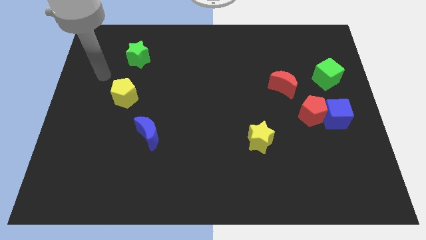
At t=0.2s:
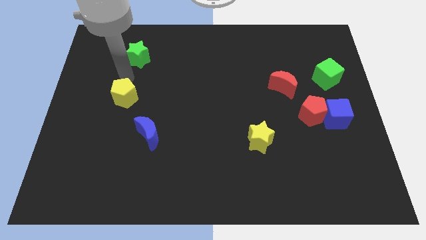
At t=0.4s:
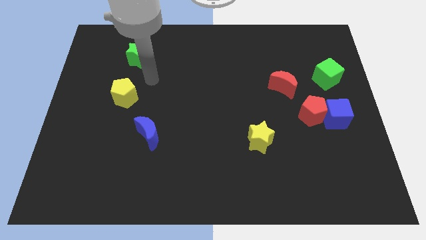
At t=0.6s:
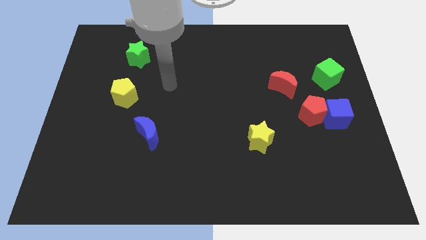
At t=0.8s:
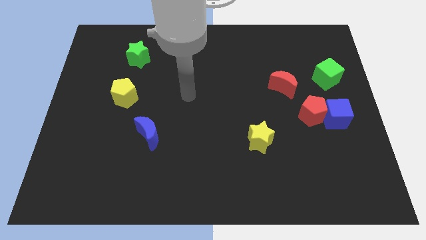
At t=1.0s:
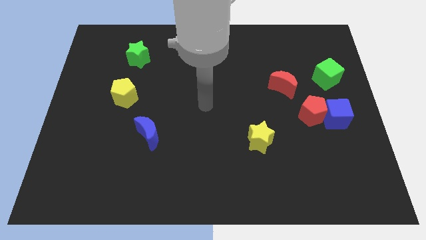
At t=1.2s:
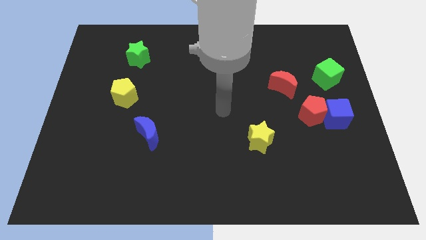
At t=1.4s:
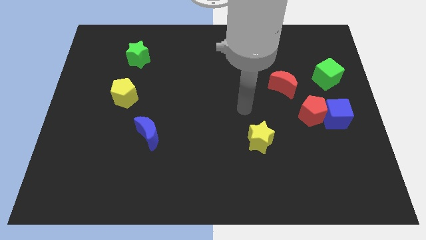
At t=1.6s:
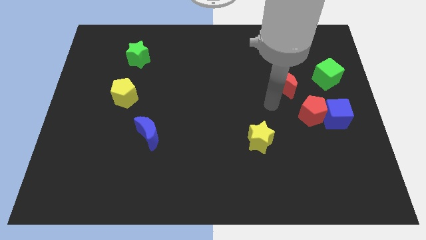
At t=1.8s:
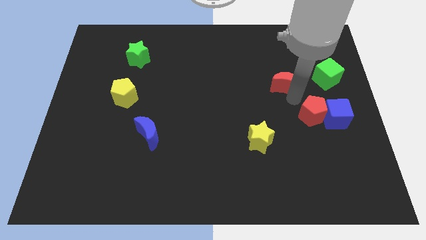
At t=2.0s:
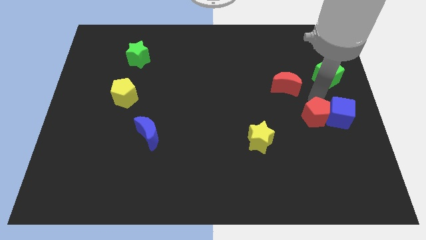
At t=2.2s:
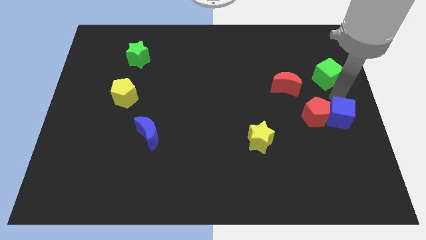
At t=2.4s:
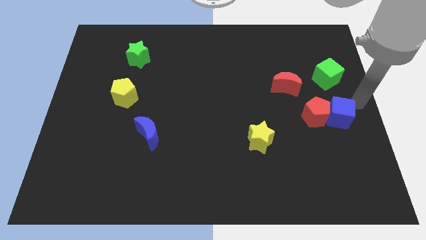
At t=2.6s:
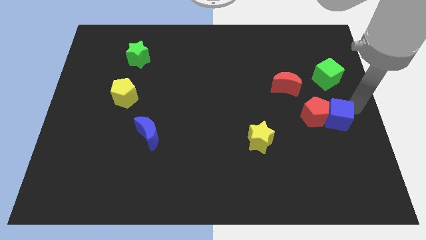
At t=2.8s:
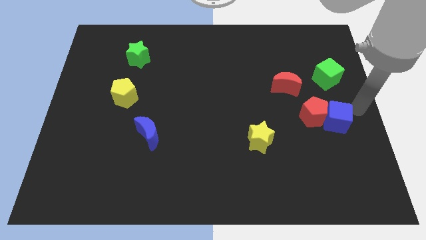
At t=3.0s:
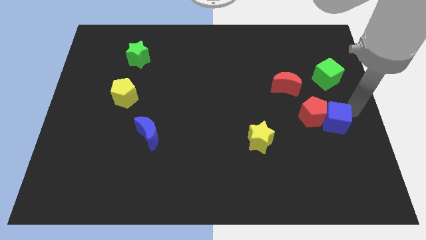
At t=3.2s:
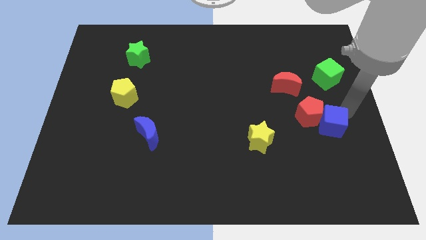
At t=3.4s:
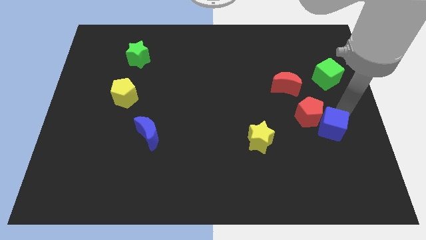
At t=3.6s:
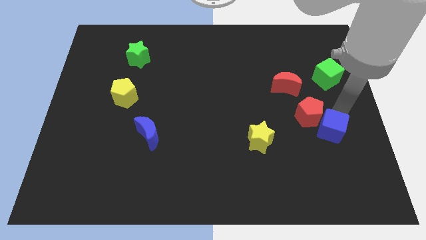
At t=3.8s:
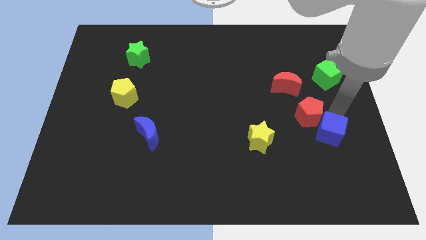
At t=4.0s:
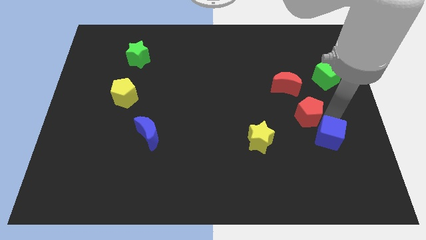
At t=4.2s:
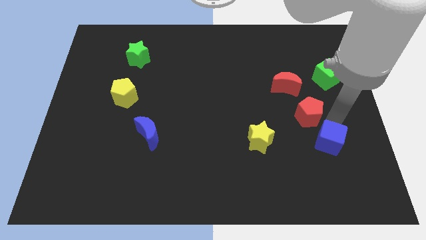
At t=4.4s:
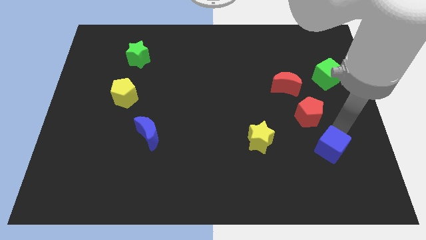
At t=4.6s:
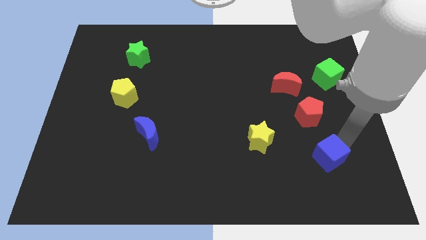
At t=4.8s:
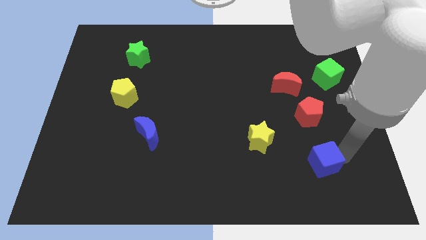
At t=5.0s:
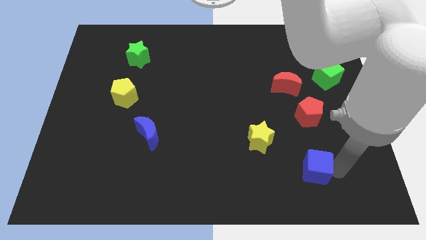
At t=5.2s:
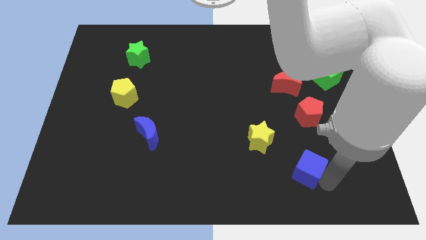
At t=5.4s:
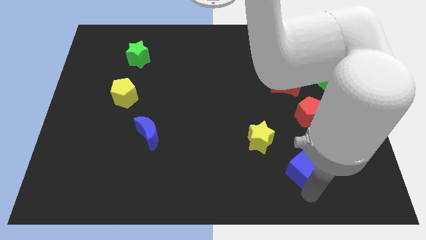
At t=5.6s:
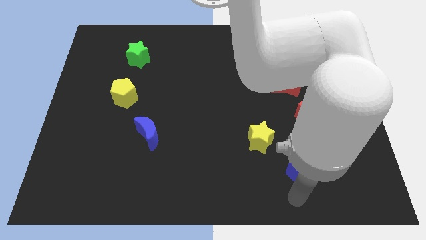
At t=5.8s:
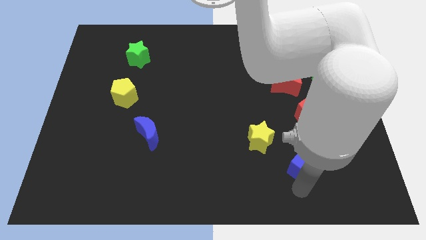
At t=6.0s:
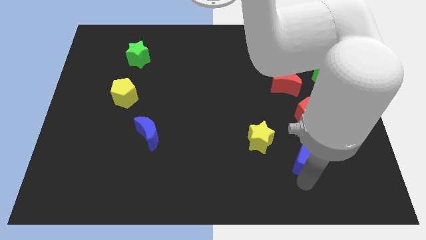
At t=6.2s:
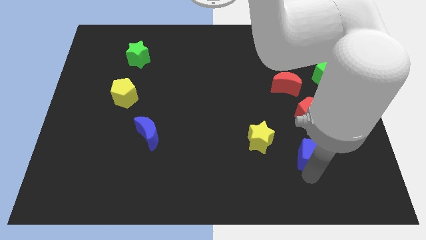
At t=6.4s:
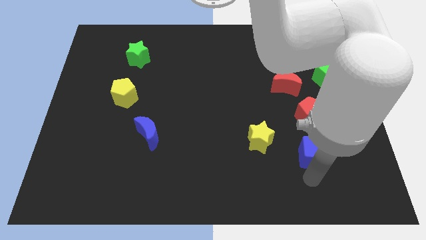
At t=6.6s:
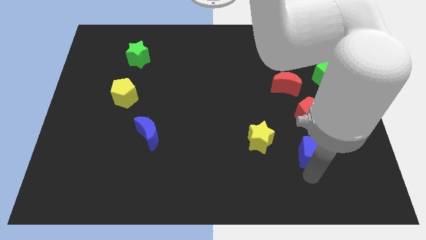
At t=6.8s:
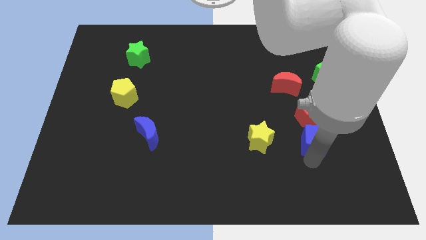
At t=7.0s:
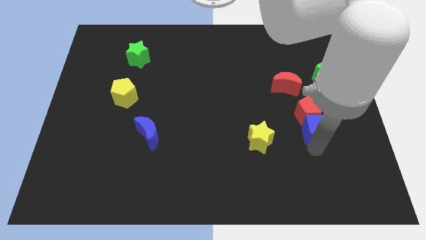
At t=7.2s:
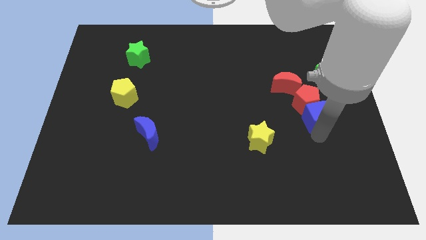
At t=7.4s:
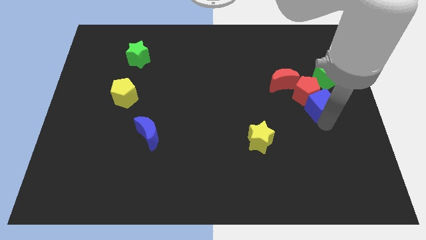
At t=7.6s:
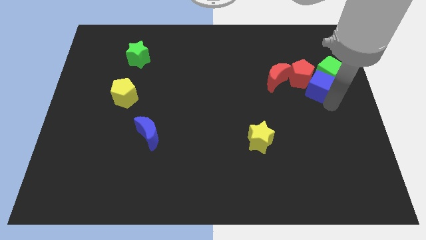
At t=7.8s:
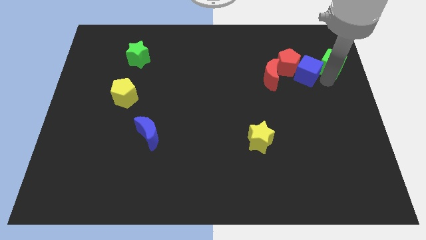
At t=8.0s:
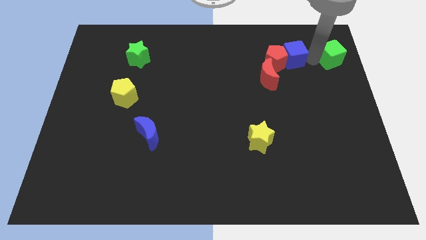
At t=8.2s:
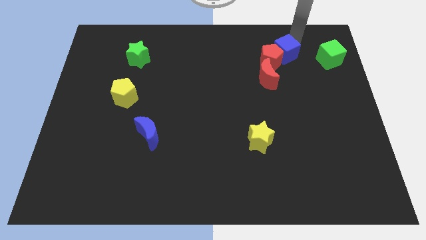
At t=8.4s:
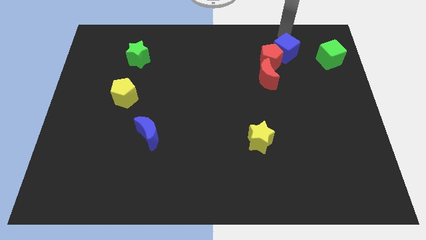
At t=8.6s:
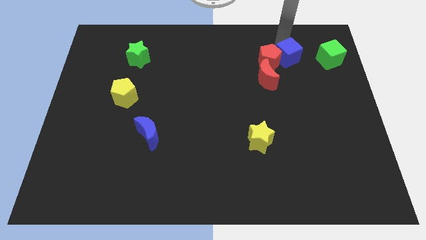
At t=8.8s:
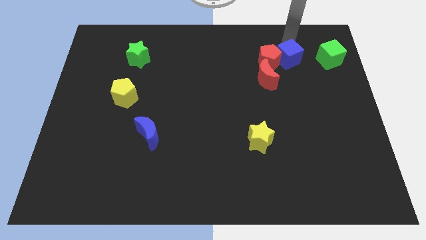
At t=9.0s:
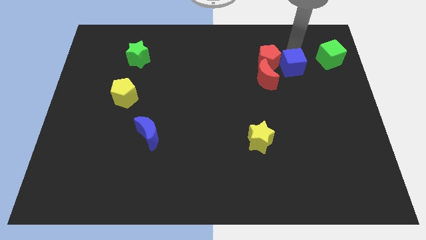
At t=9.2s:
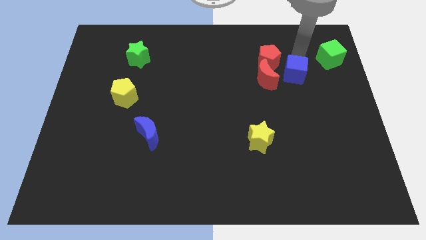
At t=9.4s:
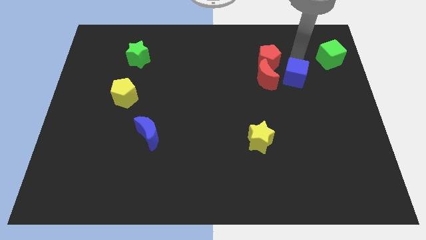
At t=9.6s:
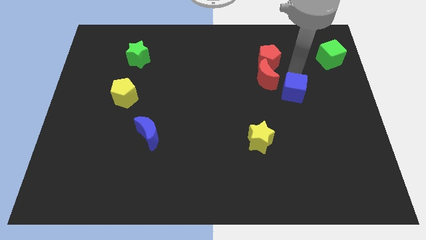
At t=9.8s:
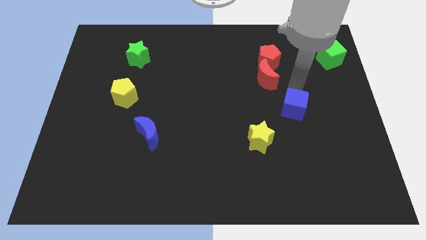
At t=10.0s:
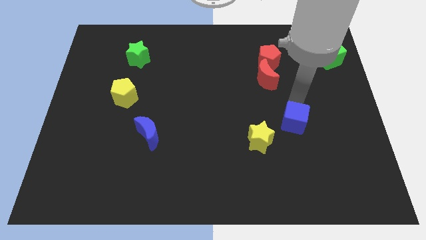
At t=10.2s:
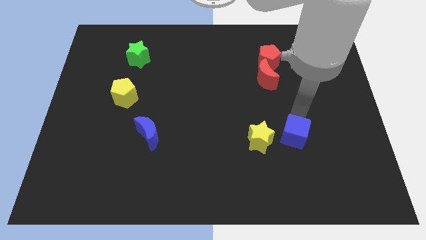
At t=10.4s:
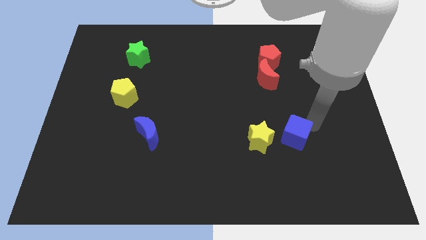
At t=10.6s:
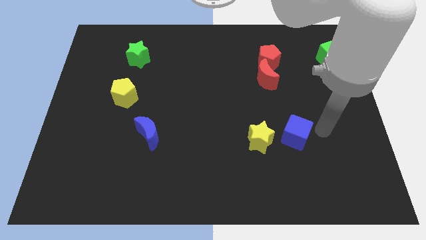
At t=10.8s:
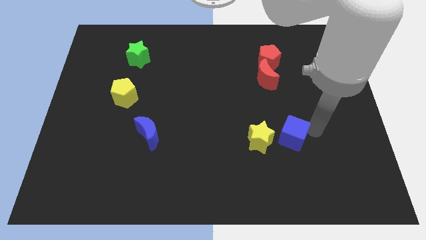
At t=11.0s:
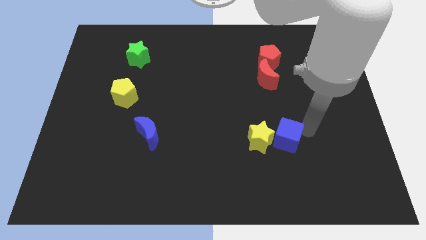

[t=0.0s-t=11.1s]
slide the blue cube to the yellow star

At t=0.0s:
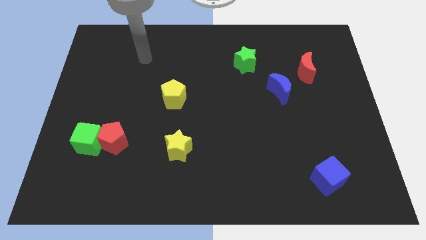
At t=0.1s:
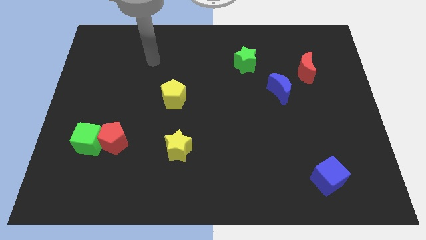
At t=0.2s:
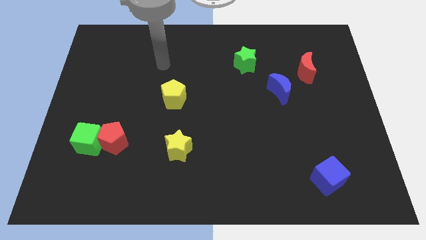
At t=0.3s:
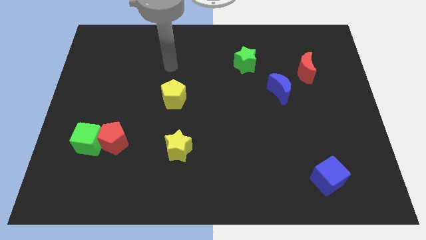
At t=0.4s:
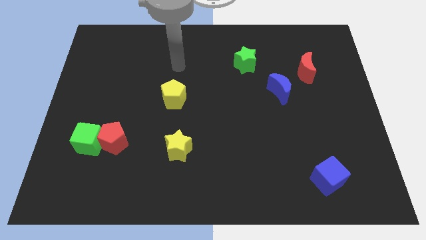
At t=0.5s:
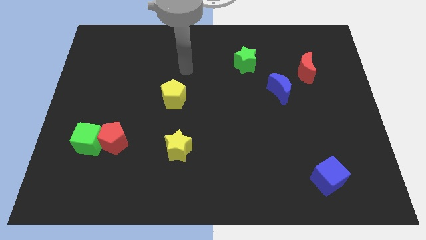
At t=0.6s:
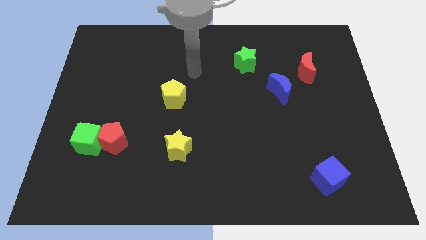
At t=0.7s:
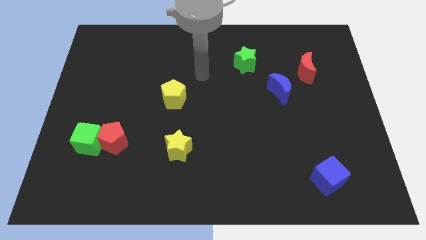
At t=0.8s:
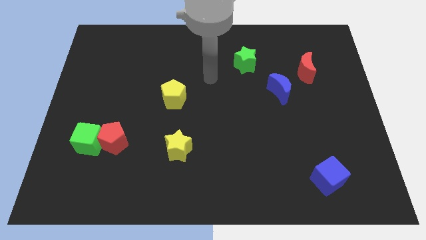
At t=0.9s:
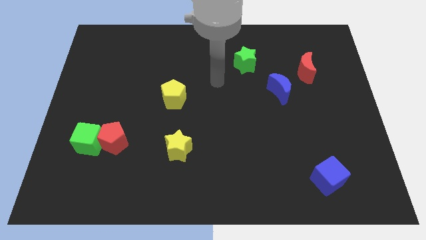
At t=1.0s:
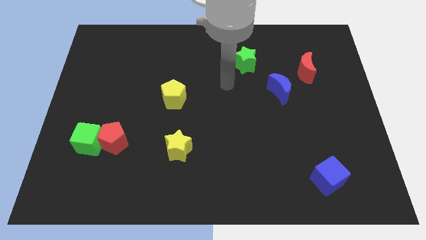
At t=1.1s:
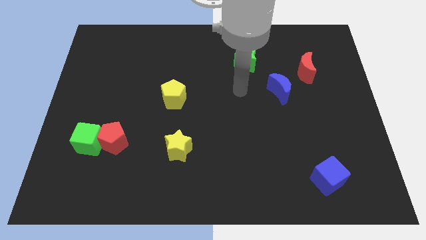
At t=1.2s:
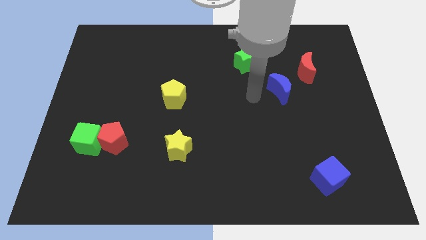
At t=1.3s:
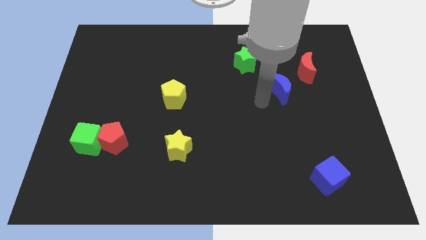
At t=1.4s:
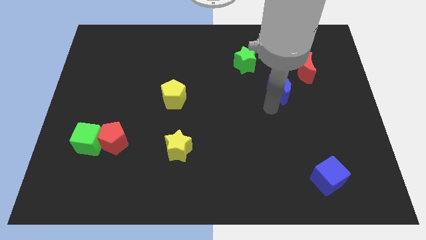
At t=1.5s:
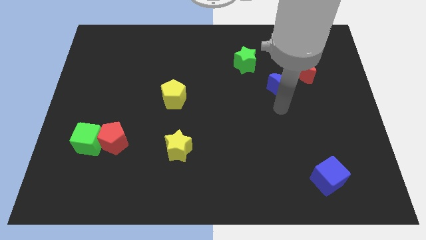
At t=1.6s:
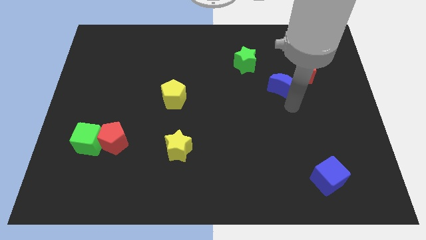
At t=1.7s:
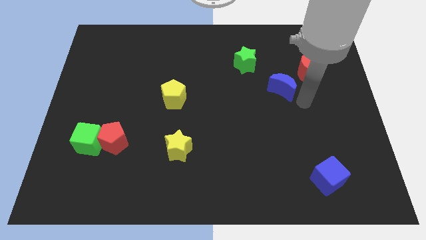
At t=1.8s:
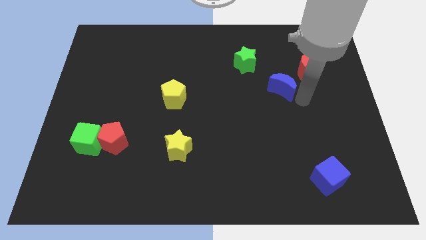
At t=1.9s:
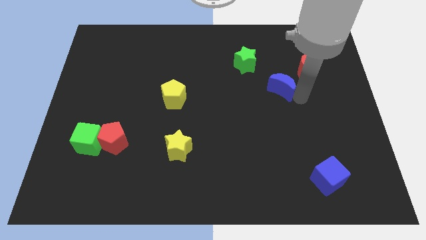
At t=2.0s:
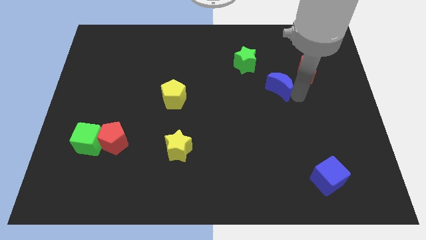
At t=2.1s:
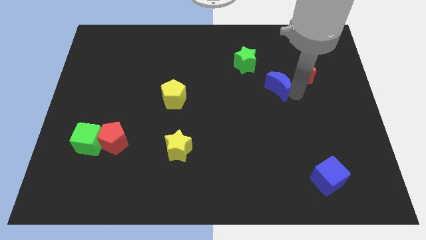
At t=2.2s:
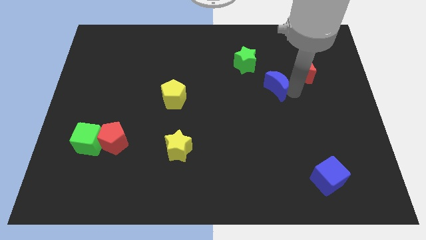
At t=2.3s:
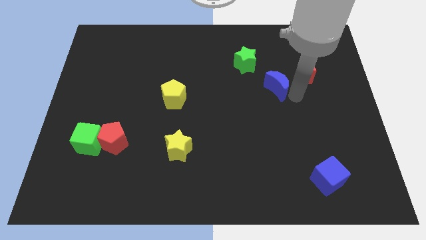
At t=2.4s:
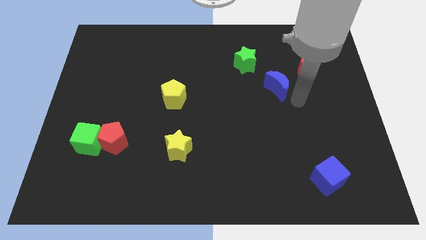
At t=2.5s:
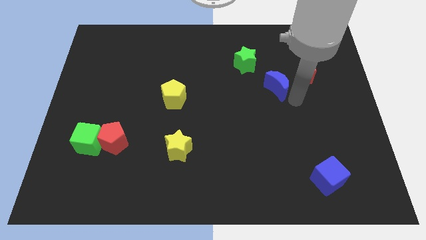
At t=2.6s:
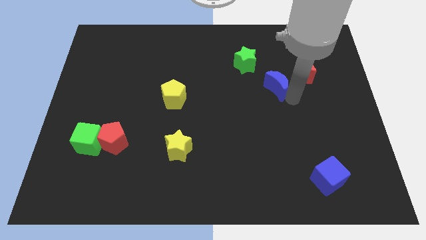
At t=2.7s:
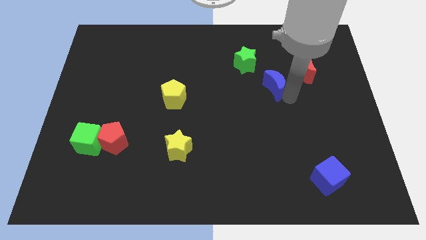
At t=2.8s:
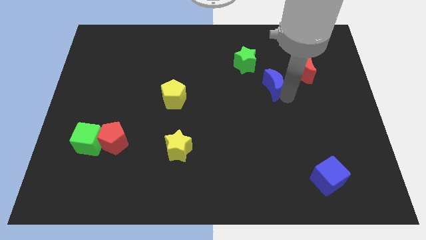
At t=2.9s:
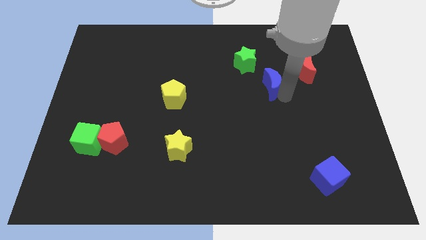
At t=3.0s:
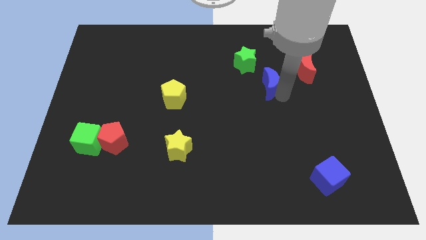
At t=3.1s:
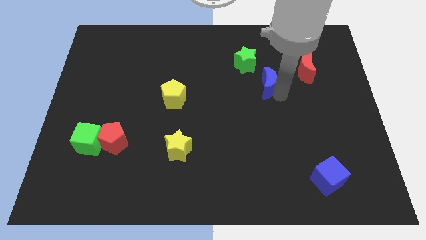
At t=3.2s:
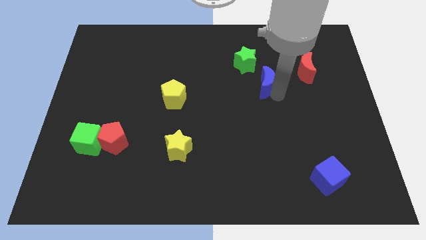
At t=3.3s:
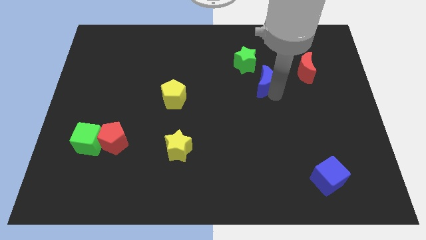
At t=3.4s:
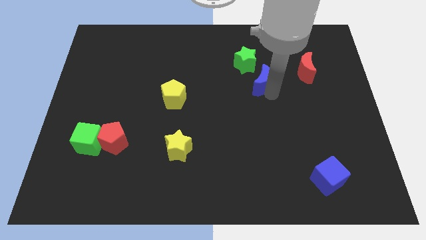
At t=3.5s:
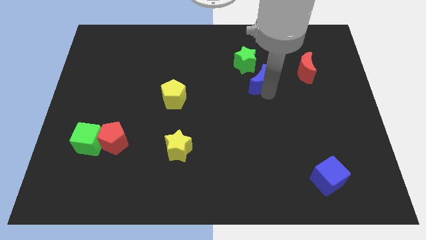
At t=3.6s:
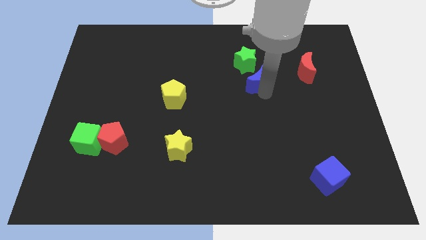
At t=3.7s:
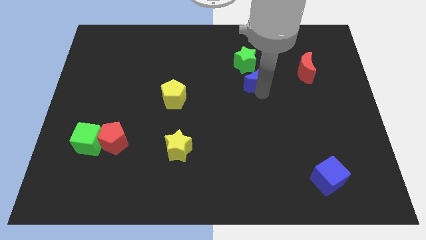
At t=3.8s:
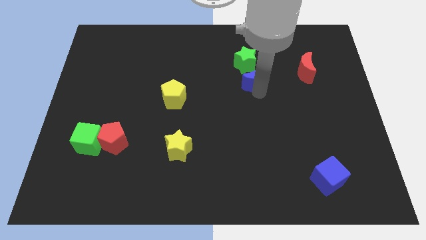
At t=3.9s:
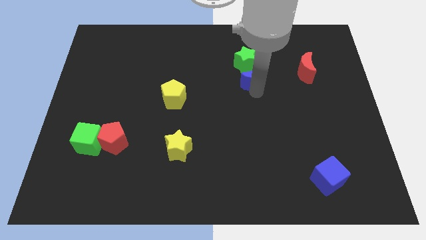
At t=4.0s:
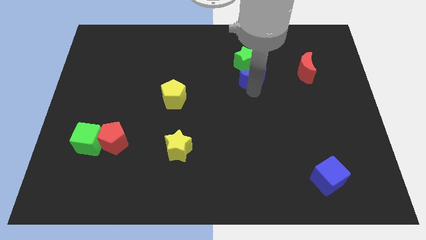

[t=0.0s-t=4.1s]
slide the blue moon next to the green star
